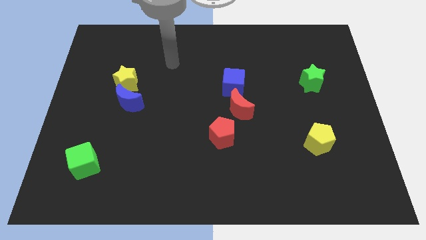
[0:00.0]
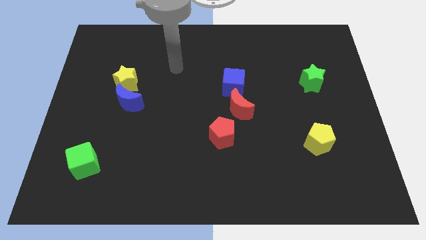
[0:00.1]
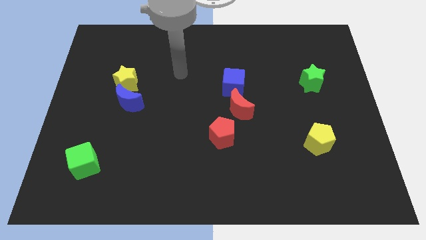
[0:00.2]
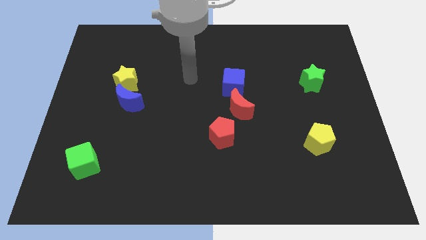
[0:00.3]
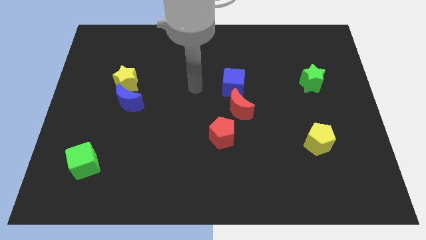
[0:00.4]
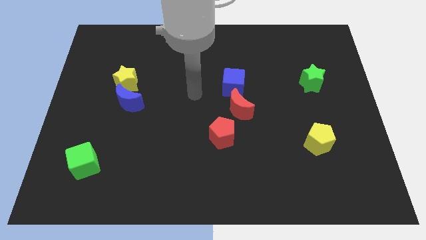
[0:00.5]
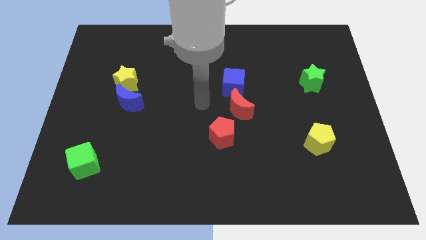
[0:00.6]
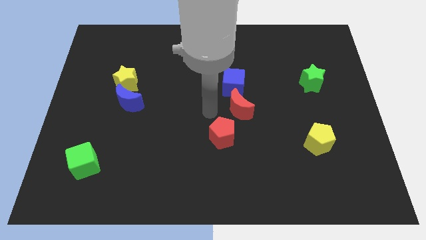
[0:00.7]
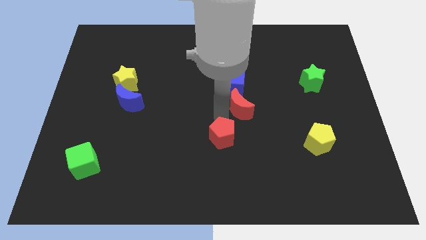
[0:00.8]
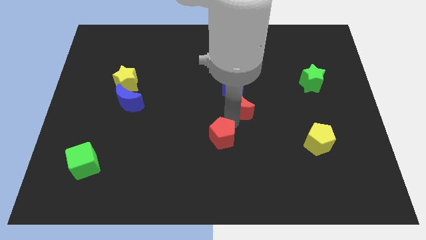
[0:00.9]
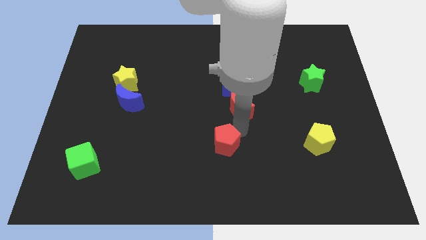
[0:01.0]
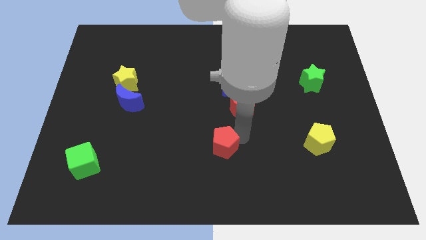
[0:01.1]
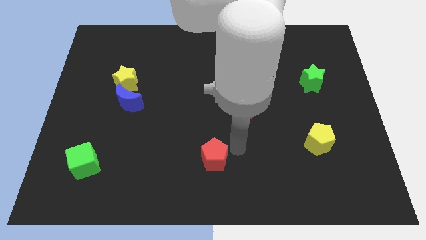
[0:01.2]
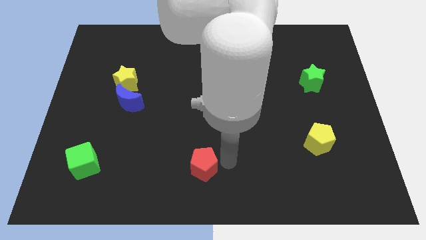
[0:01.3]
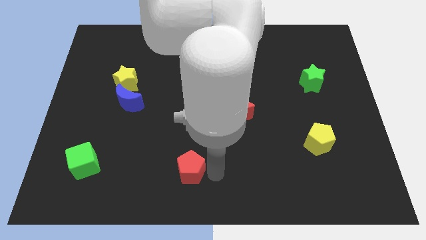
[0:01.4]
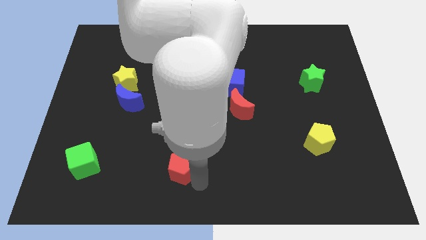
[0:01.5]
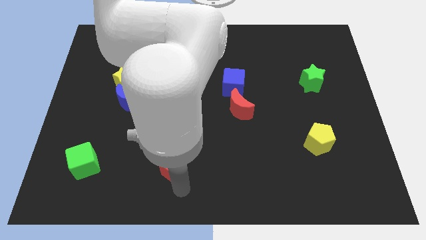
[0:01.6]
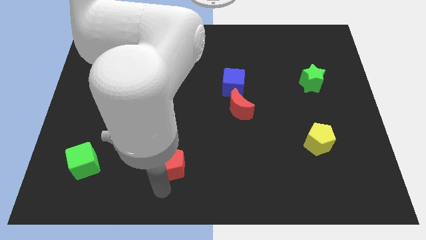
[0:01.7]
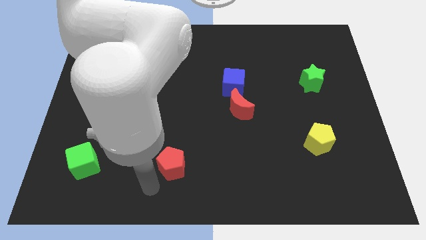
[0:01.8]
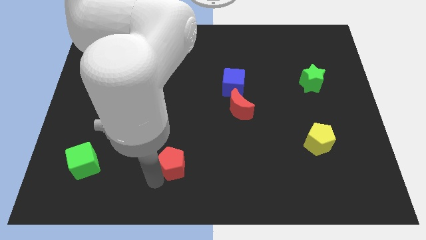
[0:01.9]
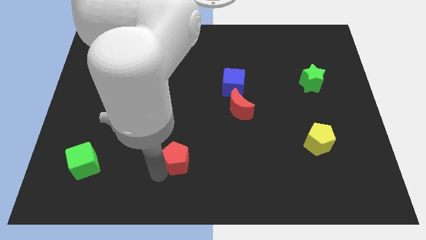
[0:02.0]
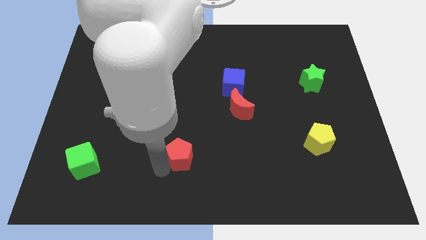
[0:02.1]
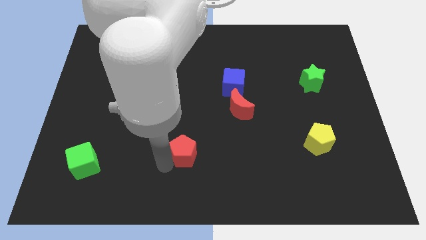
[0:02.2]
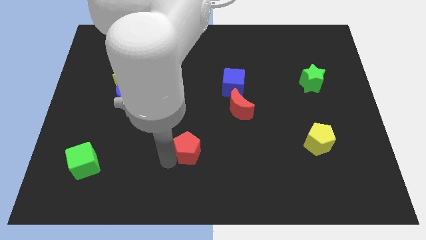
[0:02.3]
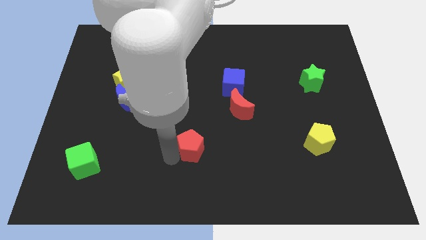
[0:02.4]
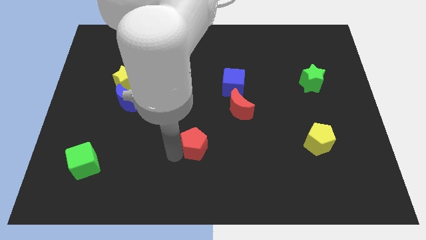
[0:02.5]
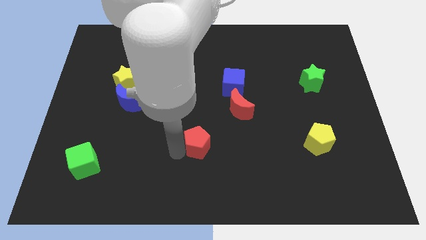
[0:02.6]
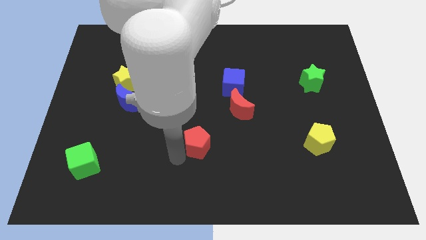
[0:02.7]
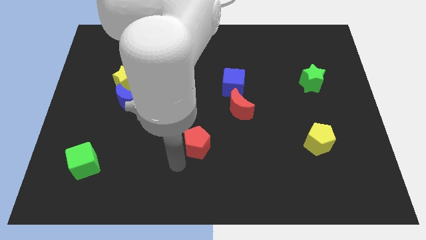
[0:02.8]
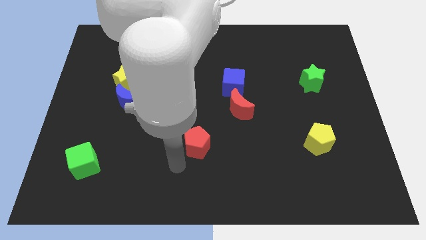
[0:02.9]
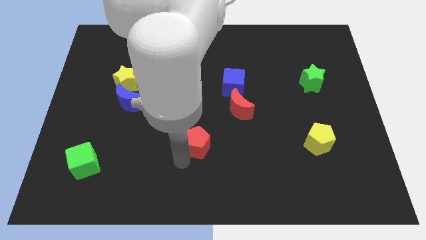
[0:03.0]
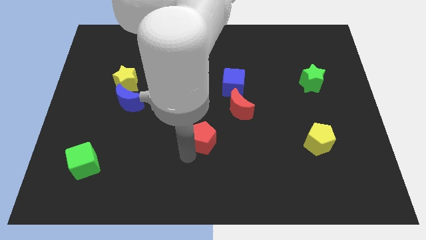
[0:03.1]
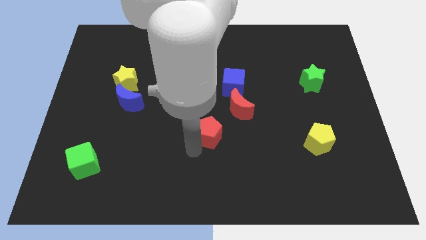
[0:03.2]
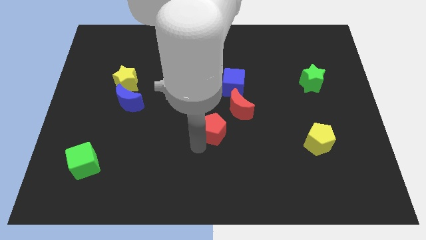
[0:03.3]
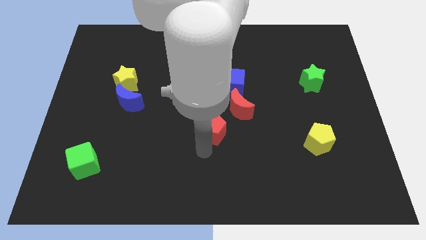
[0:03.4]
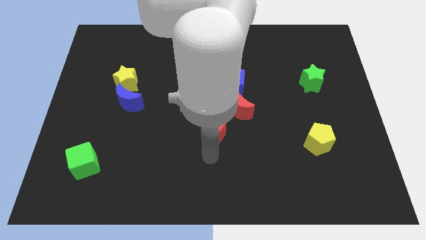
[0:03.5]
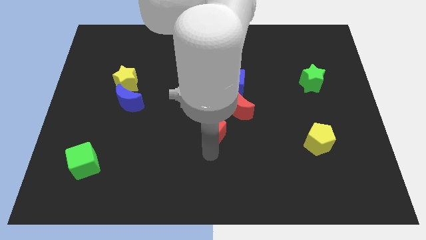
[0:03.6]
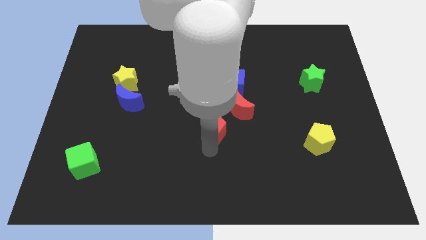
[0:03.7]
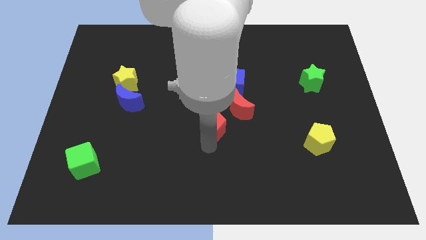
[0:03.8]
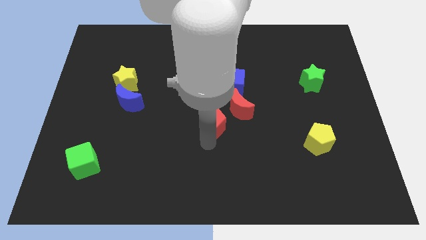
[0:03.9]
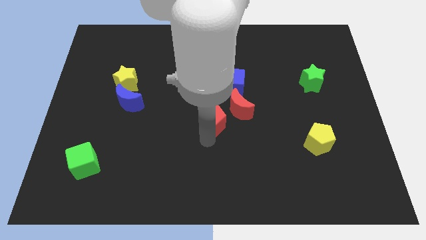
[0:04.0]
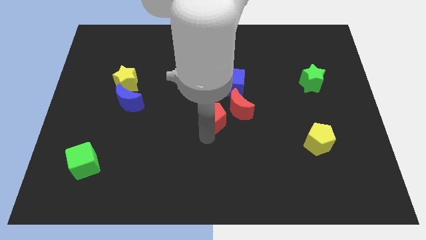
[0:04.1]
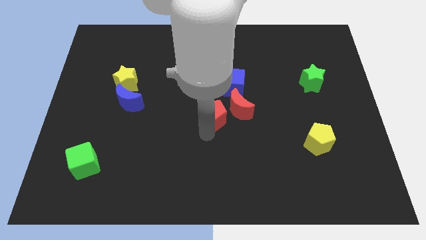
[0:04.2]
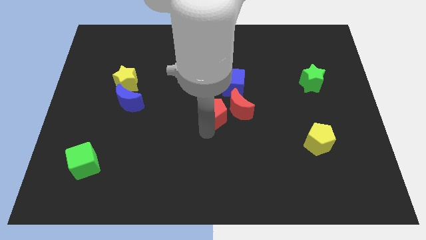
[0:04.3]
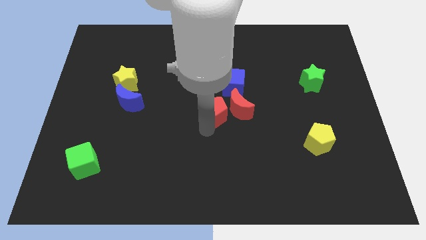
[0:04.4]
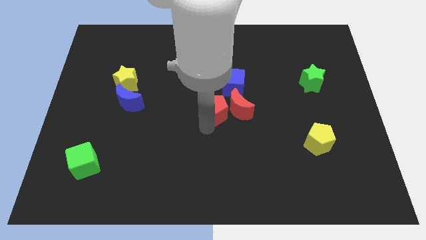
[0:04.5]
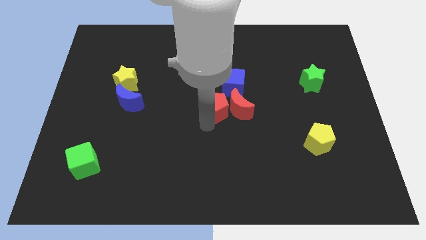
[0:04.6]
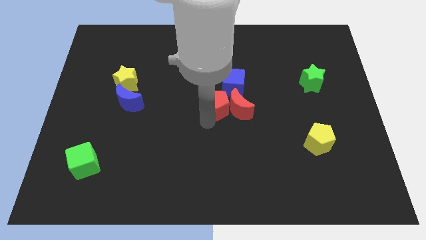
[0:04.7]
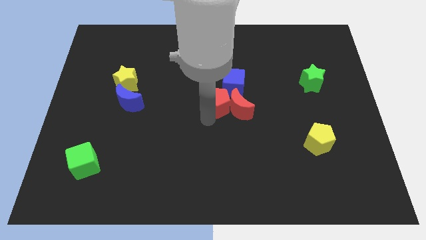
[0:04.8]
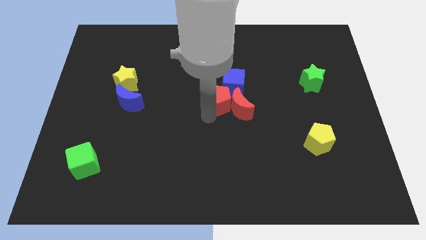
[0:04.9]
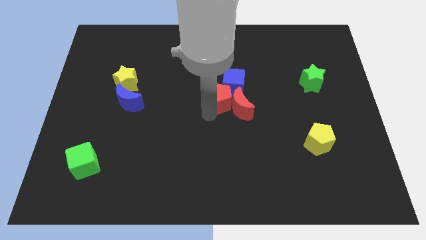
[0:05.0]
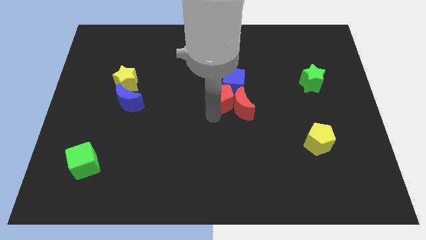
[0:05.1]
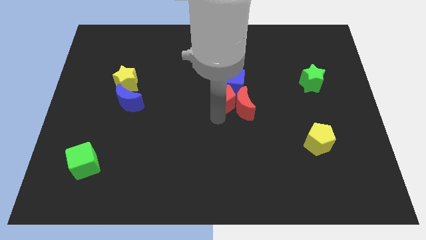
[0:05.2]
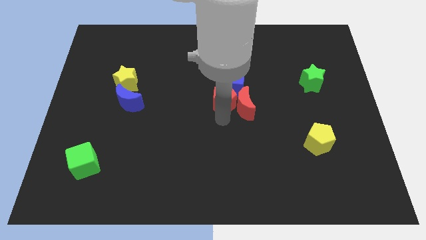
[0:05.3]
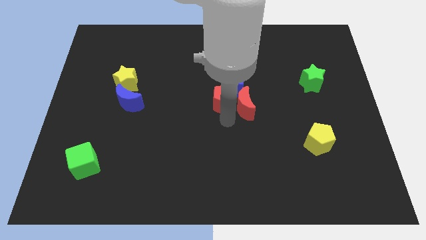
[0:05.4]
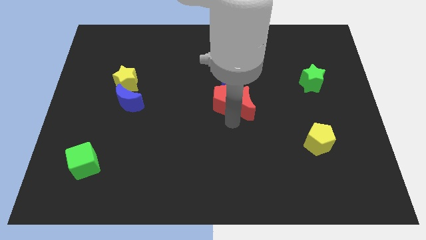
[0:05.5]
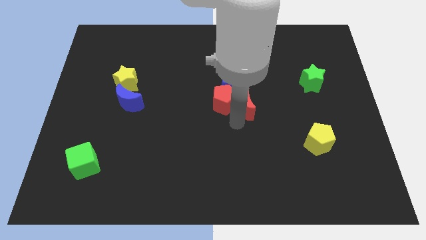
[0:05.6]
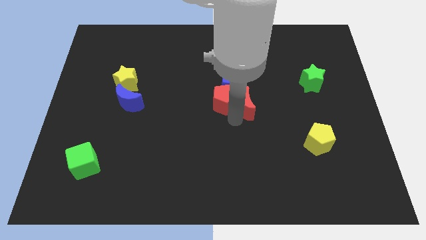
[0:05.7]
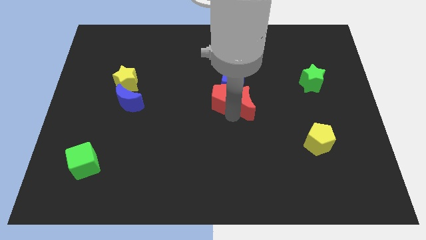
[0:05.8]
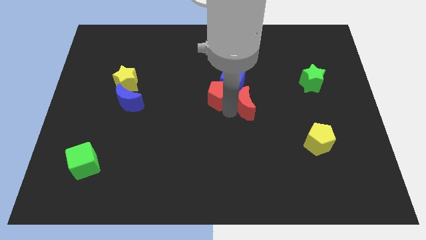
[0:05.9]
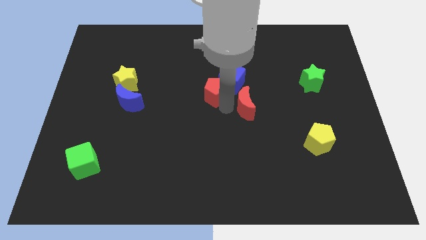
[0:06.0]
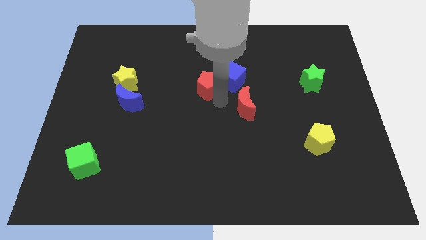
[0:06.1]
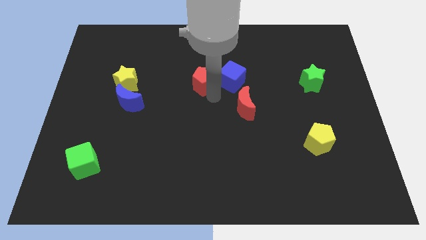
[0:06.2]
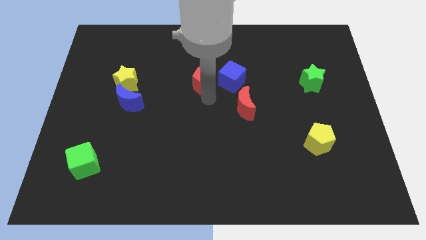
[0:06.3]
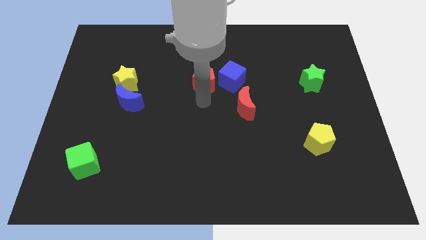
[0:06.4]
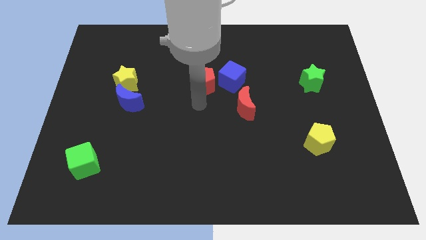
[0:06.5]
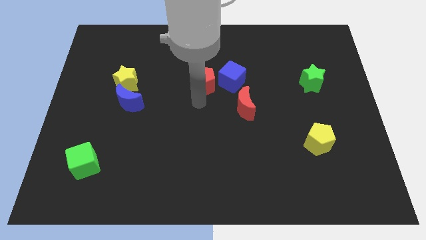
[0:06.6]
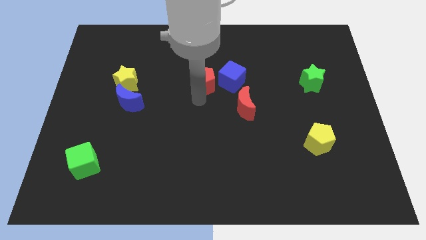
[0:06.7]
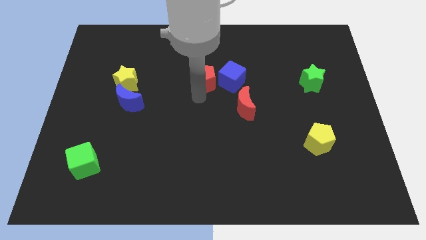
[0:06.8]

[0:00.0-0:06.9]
push the red pentagon to the top left of the blue cube

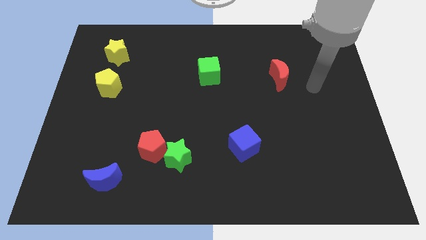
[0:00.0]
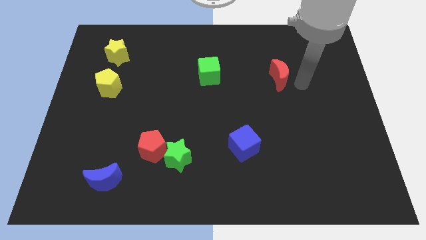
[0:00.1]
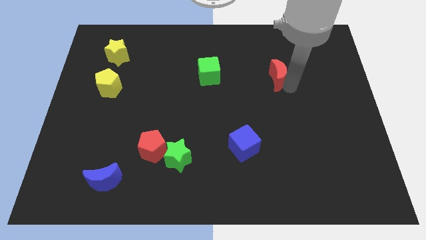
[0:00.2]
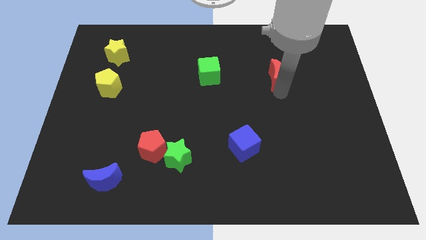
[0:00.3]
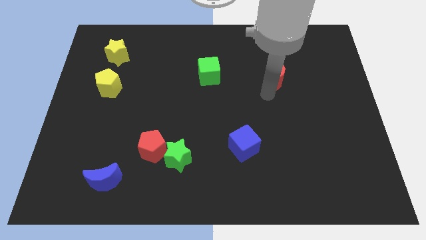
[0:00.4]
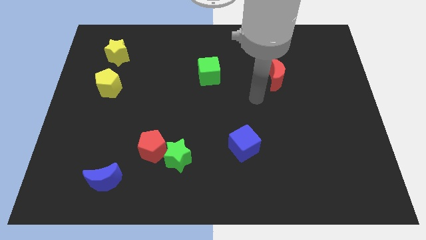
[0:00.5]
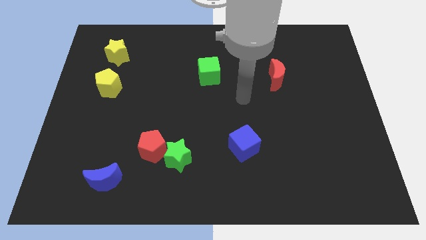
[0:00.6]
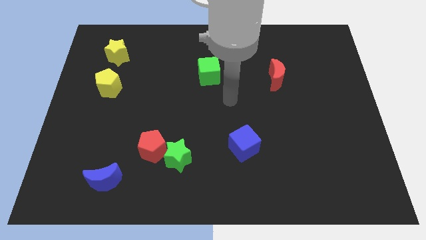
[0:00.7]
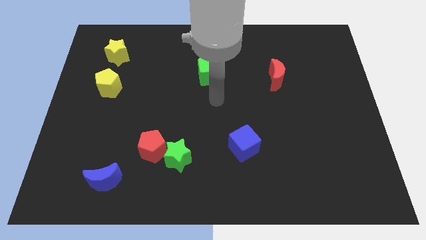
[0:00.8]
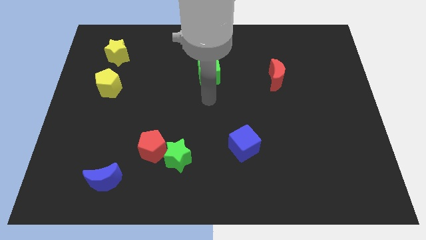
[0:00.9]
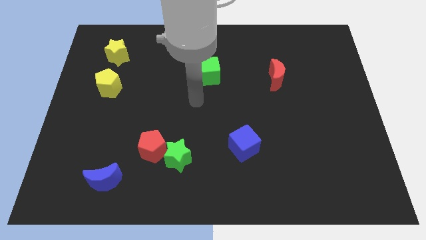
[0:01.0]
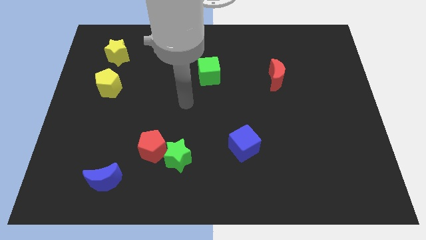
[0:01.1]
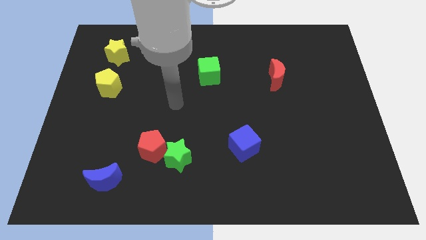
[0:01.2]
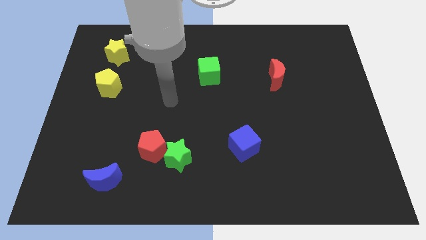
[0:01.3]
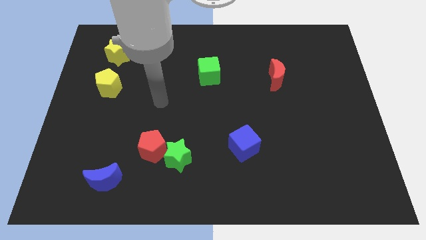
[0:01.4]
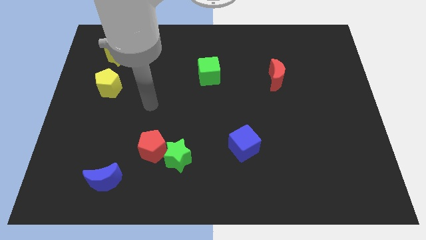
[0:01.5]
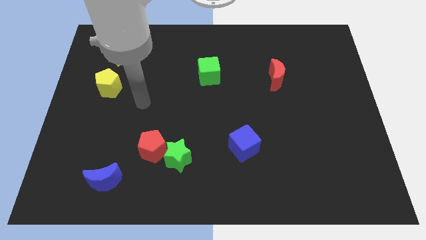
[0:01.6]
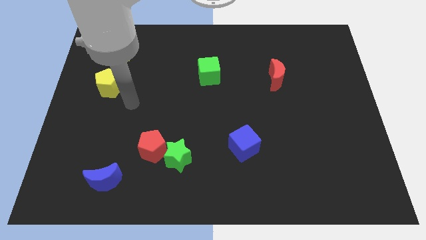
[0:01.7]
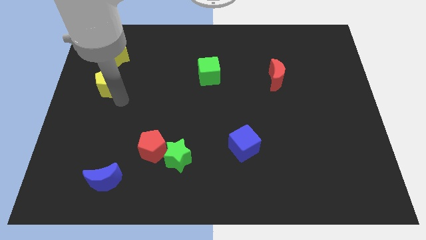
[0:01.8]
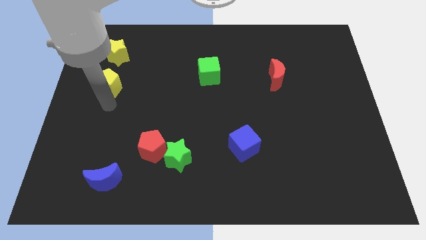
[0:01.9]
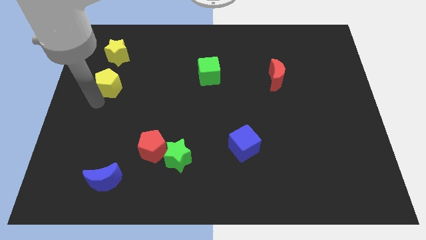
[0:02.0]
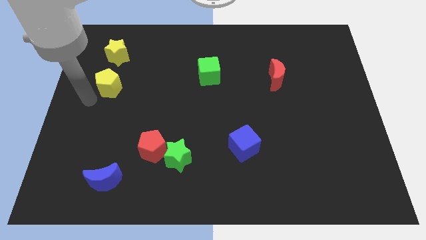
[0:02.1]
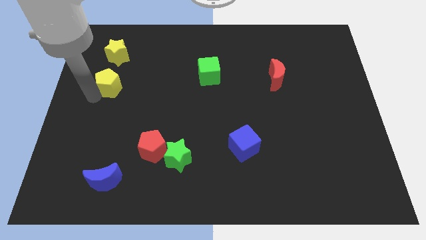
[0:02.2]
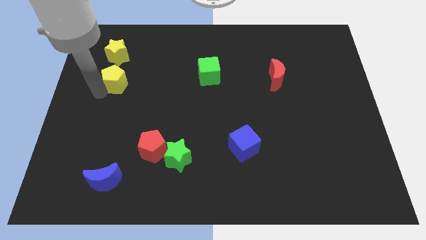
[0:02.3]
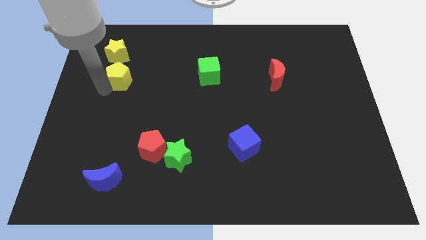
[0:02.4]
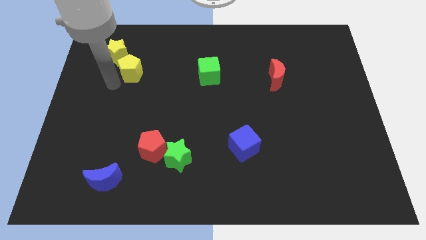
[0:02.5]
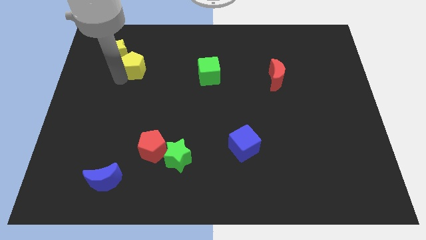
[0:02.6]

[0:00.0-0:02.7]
move the yellow pentagon right of the yellow star
